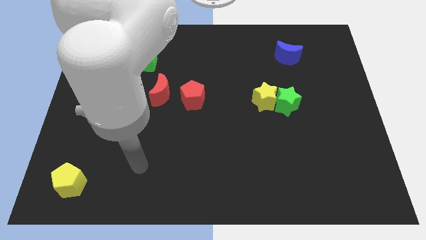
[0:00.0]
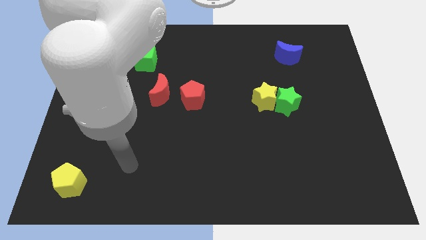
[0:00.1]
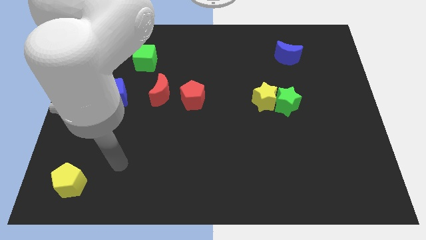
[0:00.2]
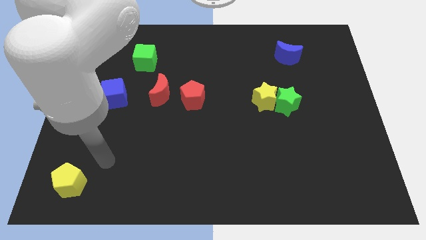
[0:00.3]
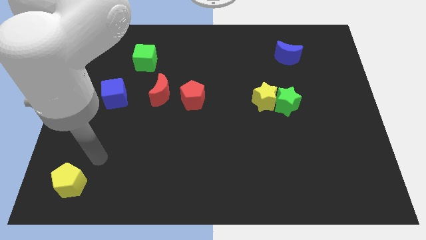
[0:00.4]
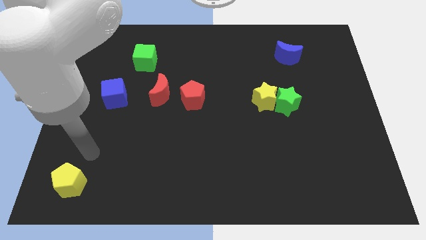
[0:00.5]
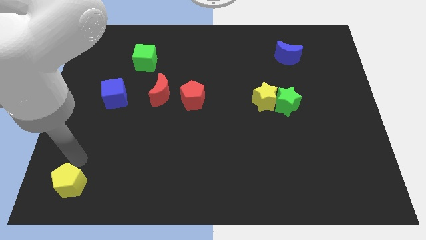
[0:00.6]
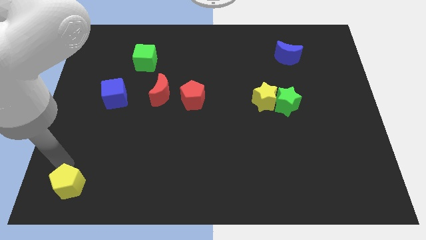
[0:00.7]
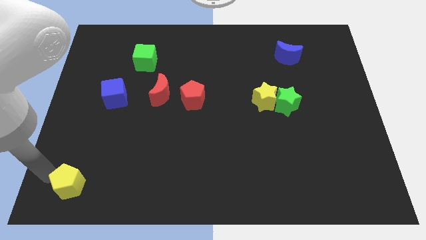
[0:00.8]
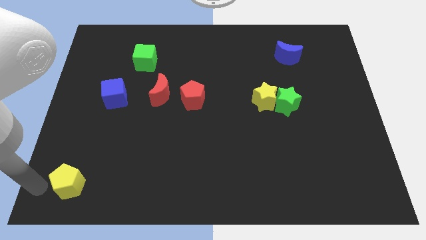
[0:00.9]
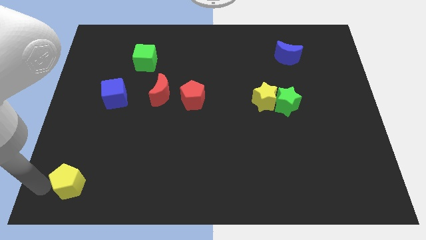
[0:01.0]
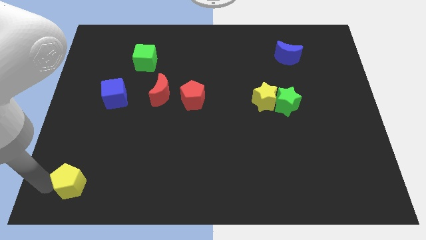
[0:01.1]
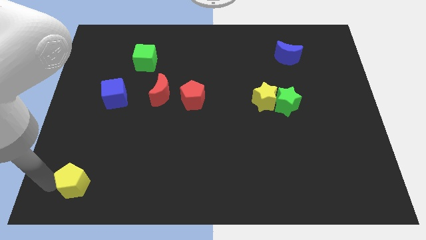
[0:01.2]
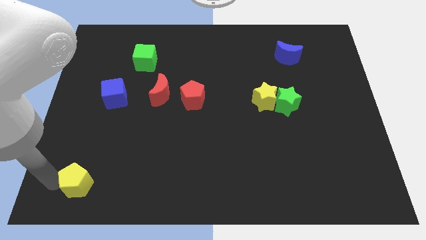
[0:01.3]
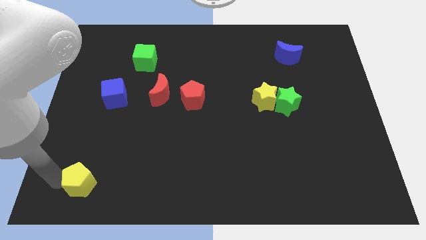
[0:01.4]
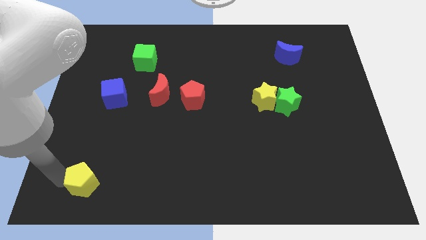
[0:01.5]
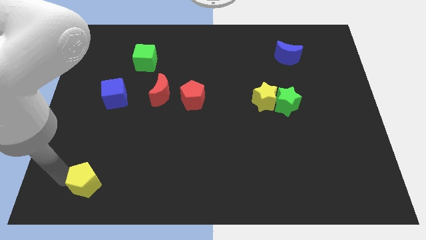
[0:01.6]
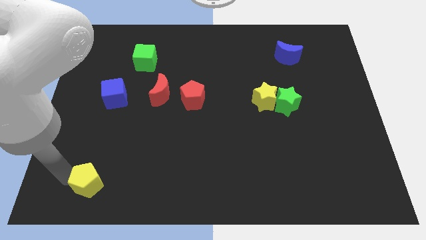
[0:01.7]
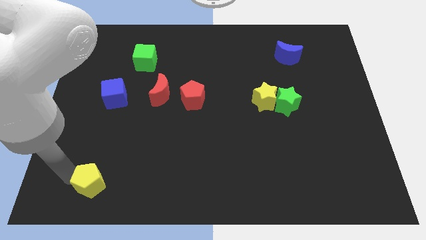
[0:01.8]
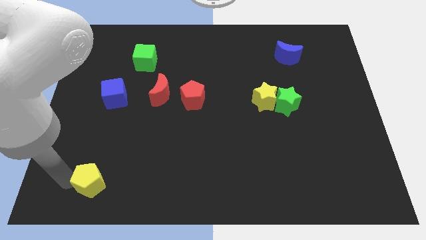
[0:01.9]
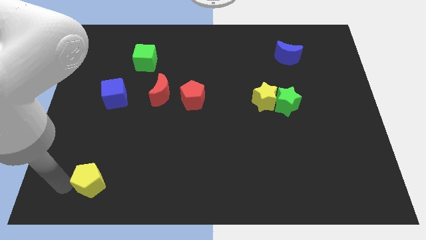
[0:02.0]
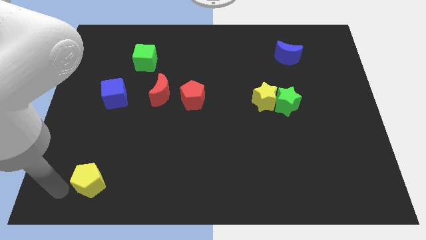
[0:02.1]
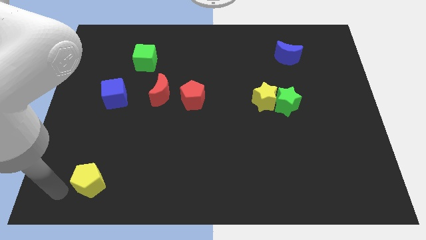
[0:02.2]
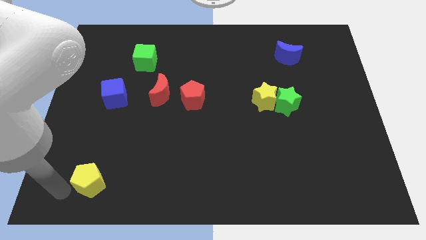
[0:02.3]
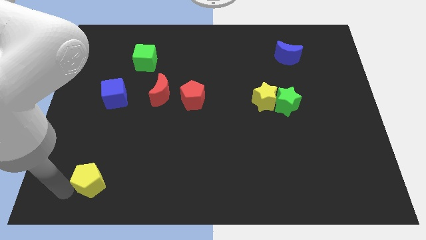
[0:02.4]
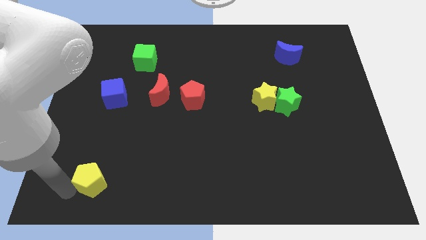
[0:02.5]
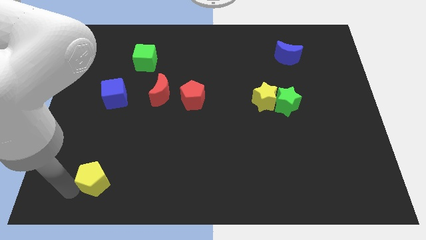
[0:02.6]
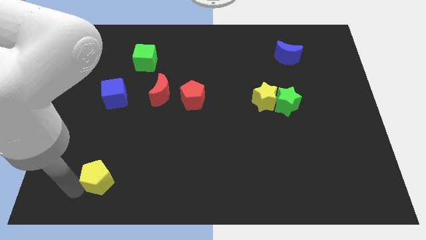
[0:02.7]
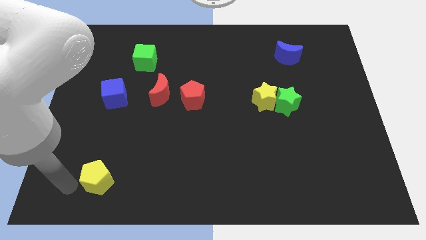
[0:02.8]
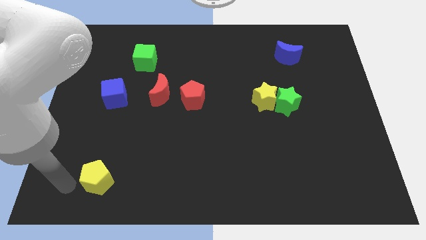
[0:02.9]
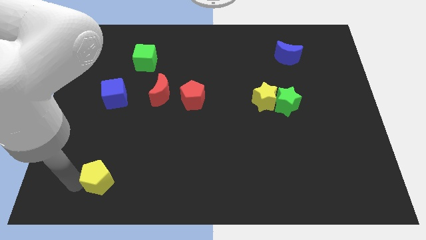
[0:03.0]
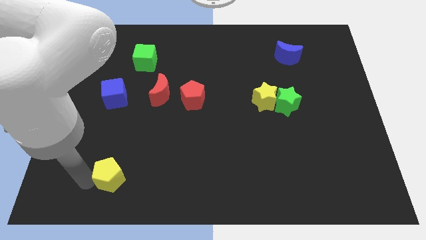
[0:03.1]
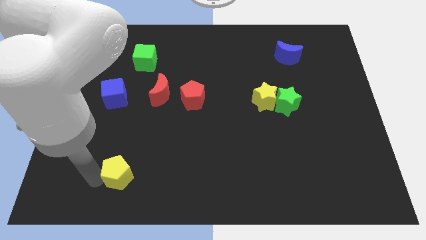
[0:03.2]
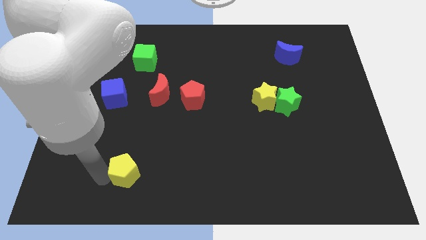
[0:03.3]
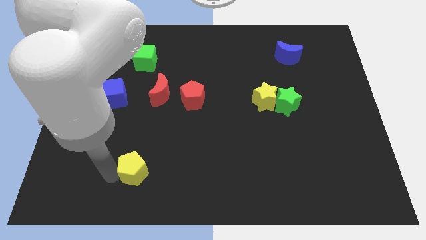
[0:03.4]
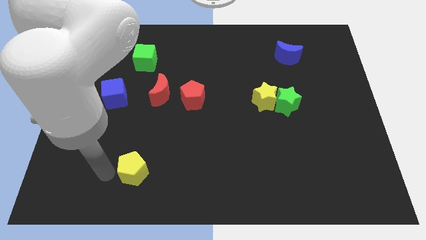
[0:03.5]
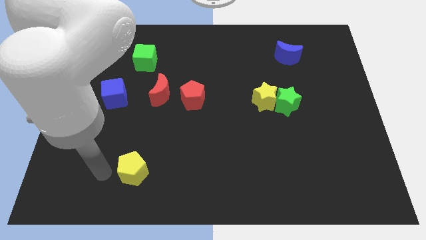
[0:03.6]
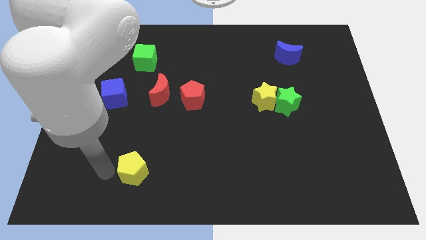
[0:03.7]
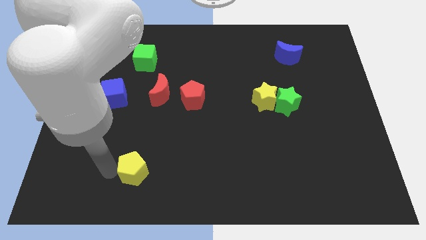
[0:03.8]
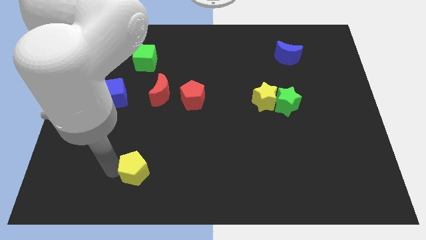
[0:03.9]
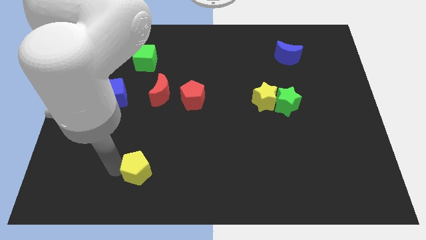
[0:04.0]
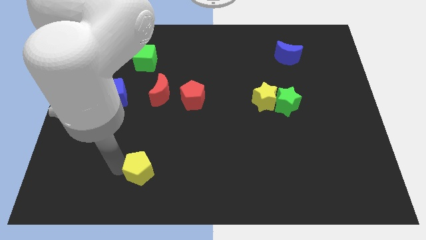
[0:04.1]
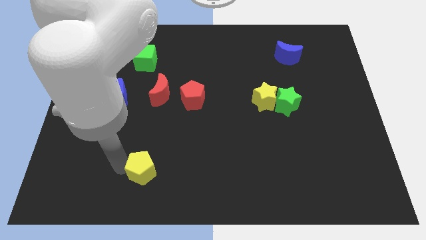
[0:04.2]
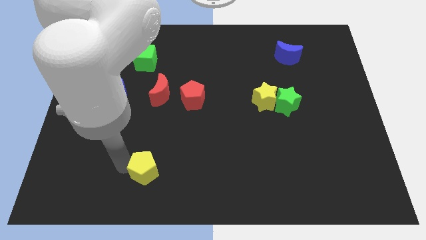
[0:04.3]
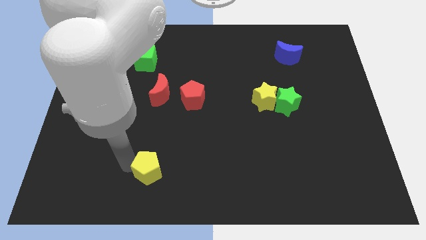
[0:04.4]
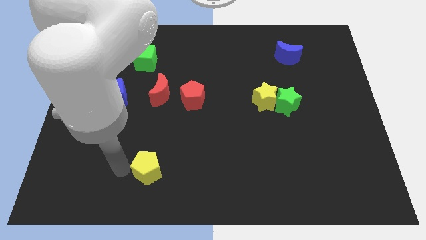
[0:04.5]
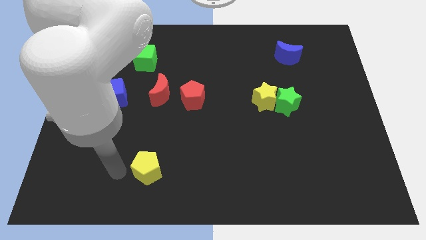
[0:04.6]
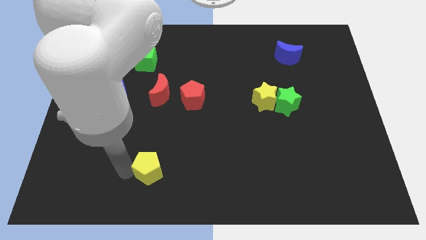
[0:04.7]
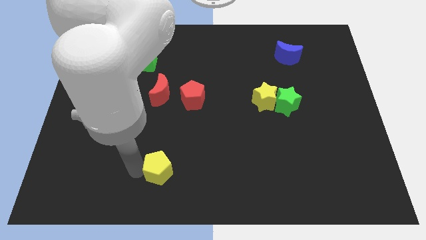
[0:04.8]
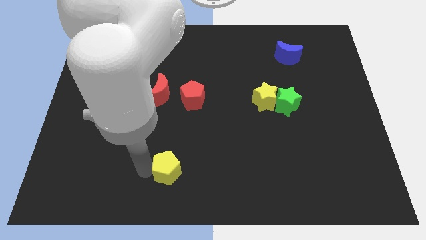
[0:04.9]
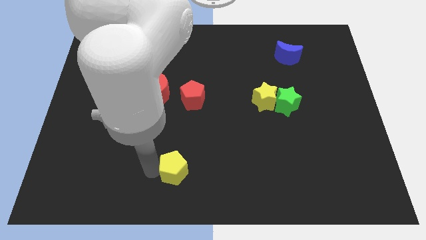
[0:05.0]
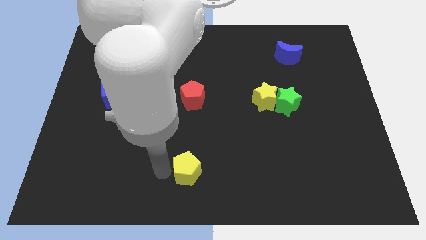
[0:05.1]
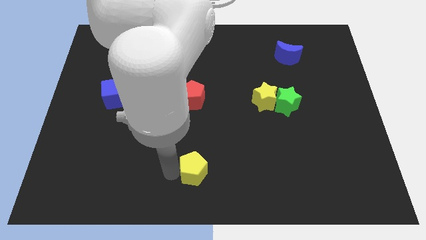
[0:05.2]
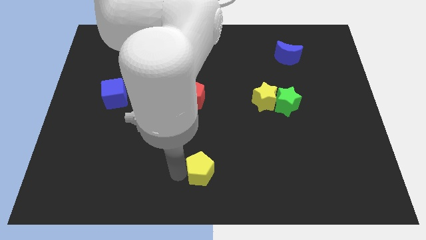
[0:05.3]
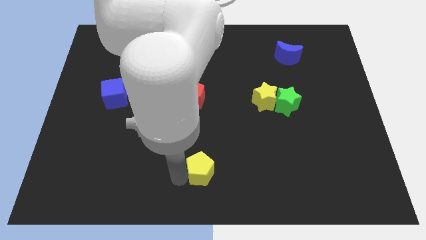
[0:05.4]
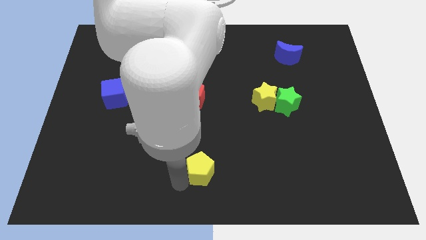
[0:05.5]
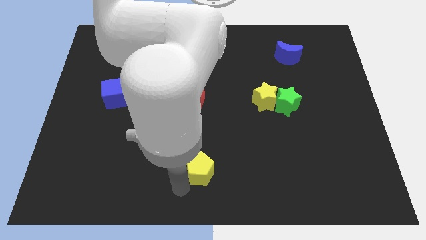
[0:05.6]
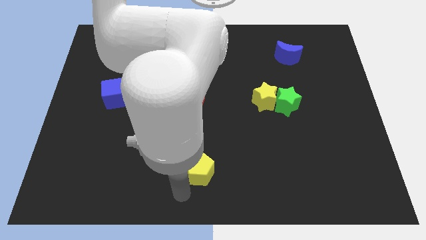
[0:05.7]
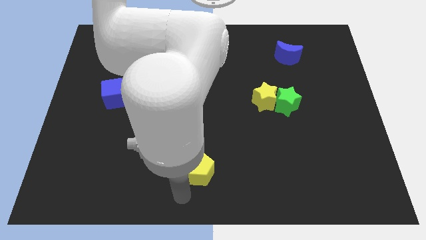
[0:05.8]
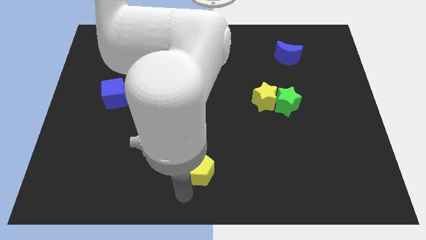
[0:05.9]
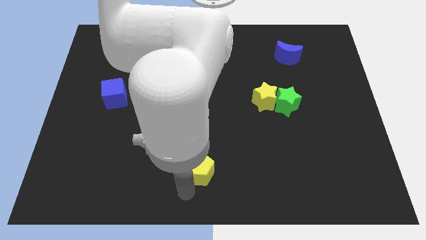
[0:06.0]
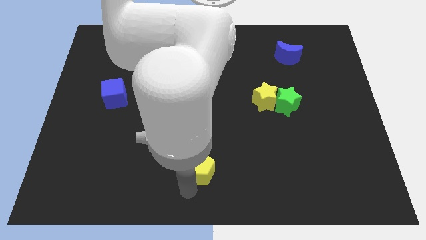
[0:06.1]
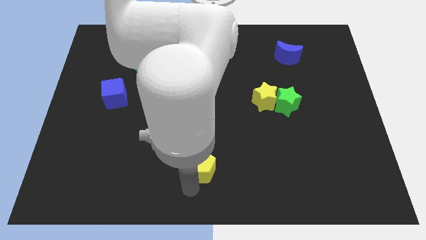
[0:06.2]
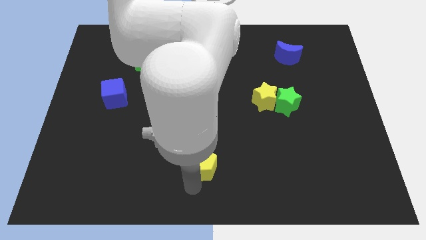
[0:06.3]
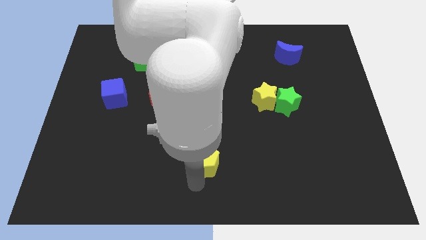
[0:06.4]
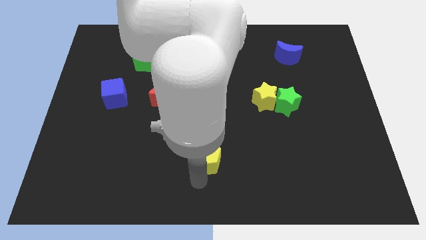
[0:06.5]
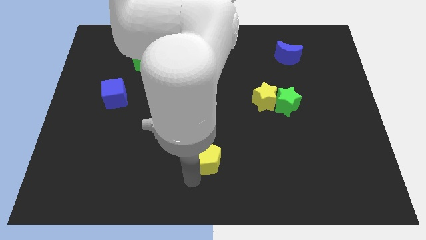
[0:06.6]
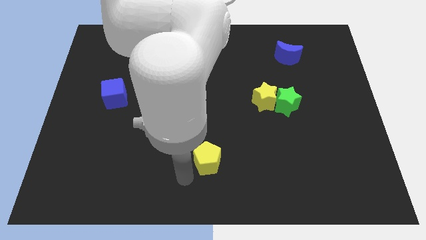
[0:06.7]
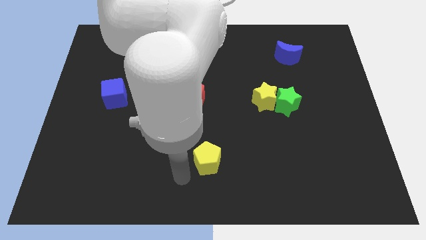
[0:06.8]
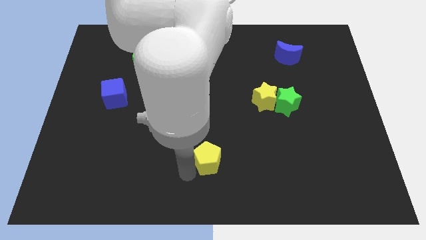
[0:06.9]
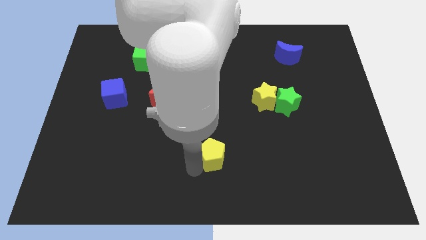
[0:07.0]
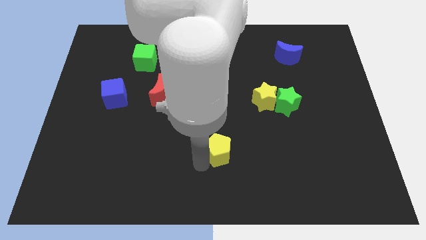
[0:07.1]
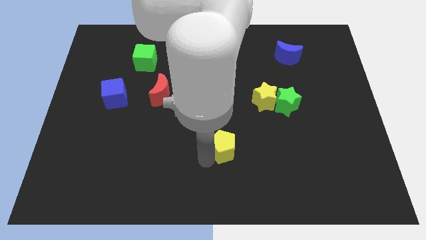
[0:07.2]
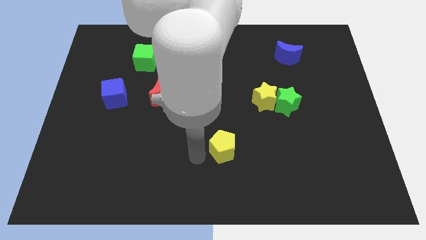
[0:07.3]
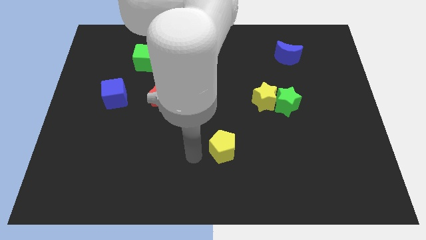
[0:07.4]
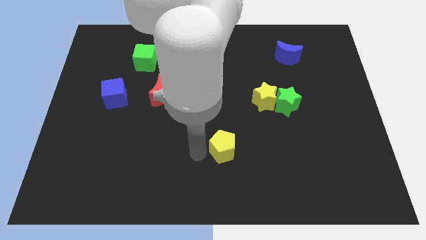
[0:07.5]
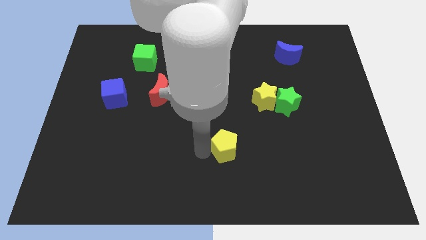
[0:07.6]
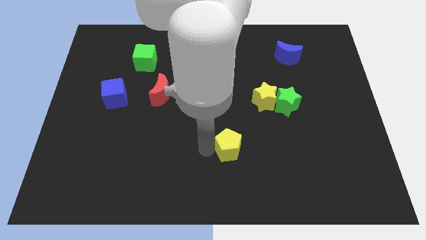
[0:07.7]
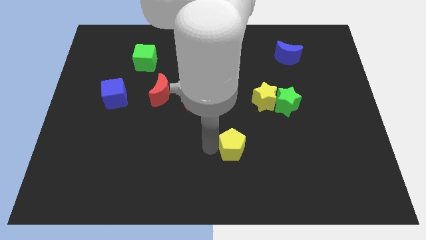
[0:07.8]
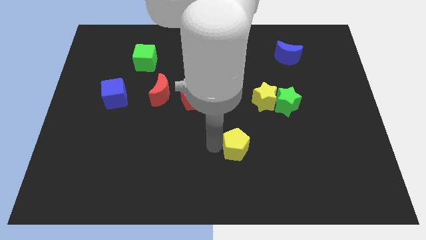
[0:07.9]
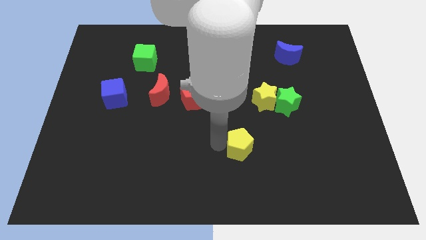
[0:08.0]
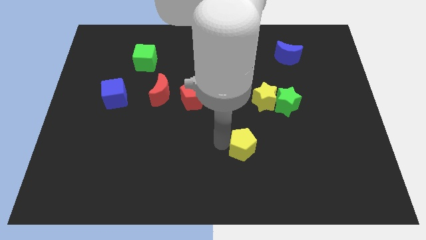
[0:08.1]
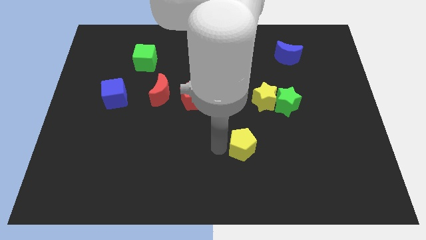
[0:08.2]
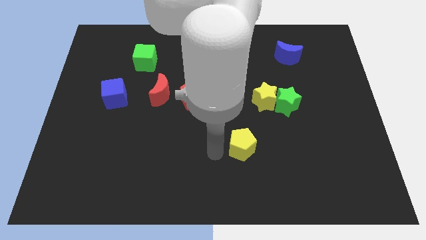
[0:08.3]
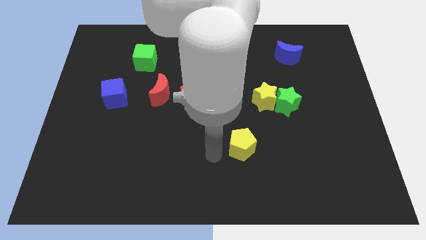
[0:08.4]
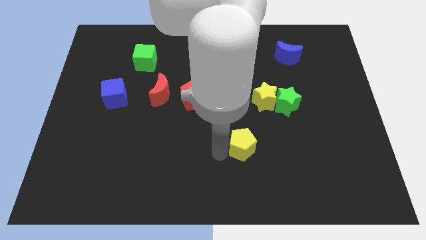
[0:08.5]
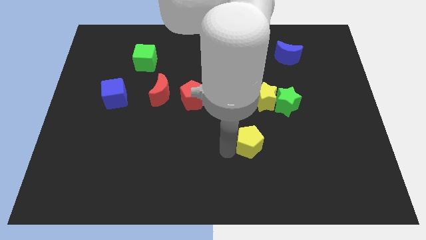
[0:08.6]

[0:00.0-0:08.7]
push the yellow pentagon to the bottom of the yellow star
